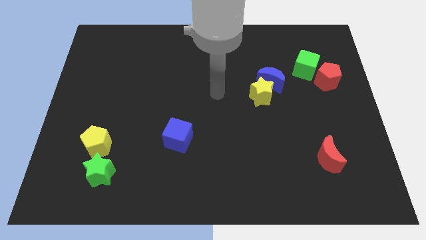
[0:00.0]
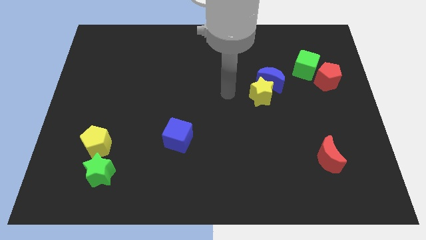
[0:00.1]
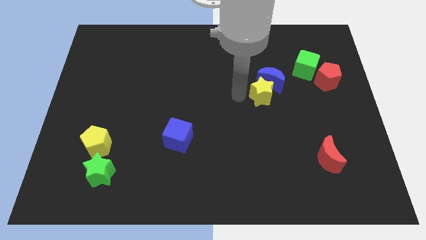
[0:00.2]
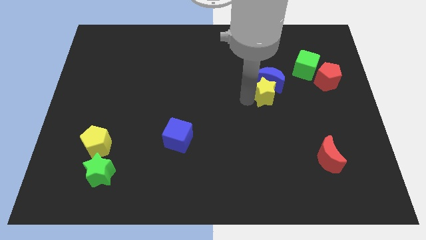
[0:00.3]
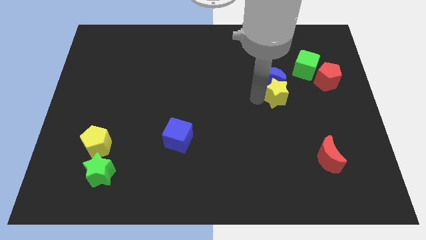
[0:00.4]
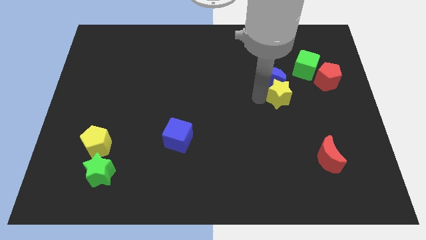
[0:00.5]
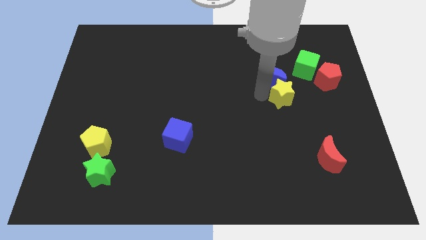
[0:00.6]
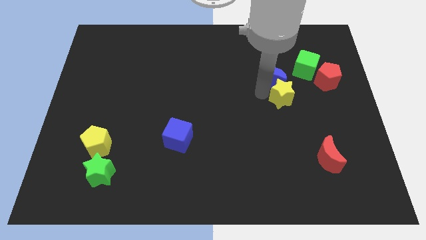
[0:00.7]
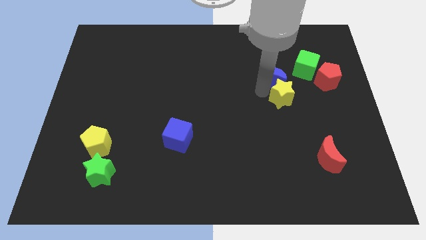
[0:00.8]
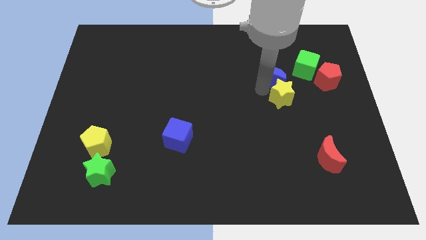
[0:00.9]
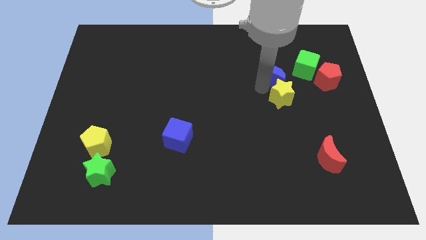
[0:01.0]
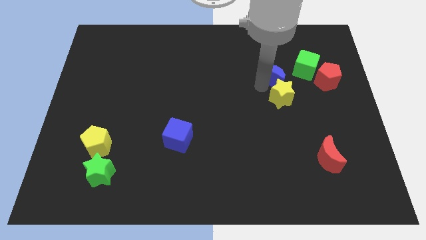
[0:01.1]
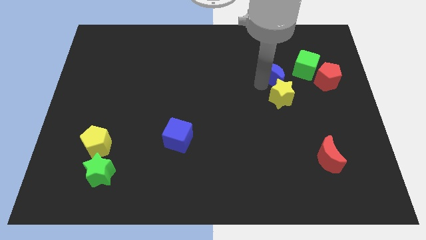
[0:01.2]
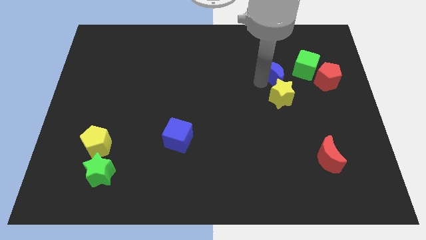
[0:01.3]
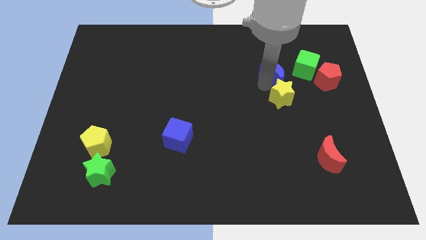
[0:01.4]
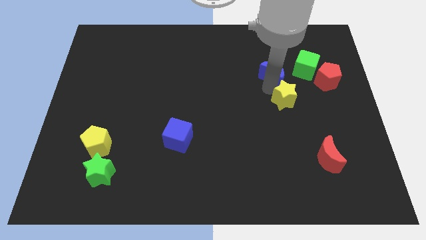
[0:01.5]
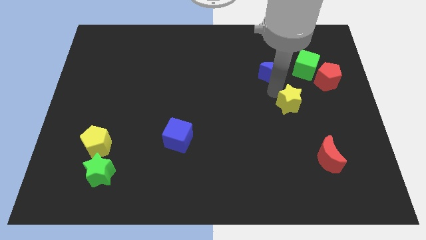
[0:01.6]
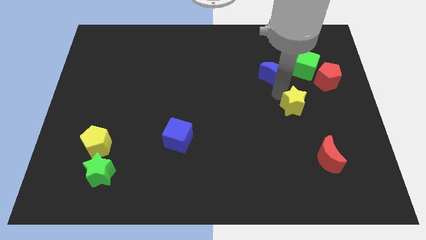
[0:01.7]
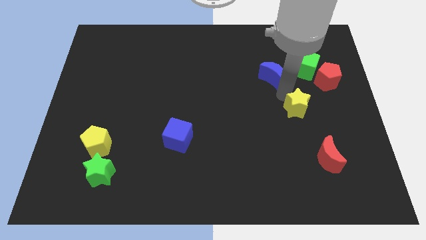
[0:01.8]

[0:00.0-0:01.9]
move the blue moon away from the yellow star

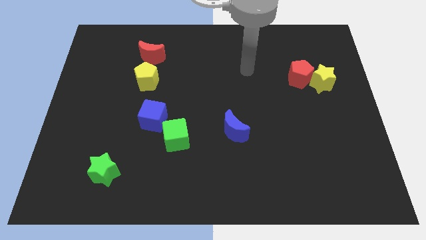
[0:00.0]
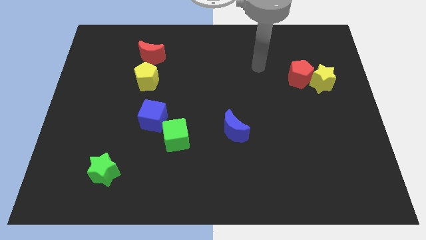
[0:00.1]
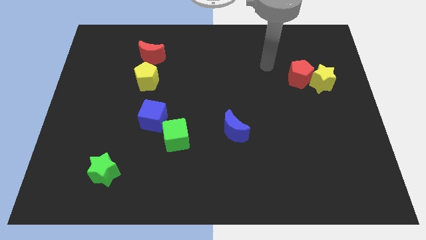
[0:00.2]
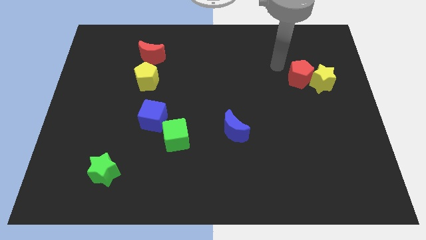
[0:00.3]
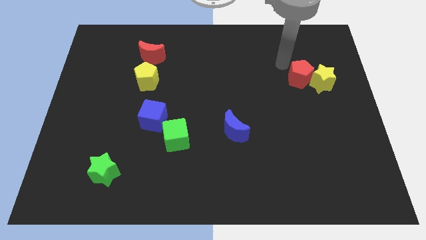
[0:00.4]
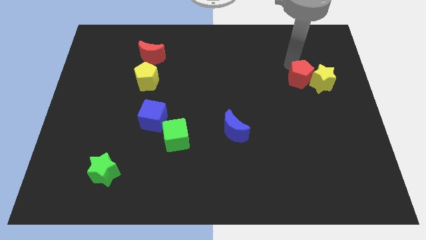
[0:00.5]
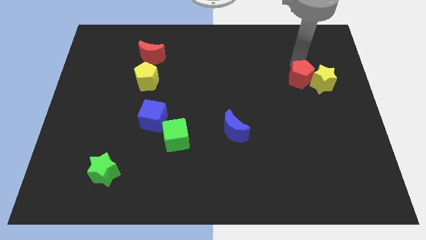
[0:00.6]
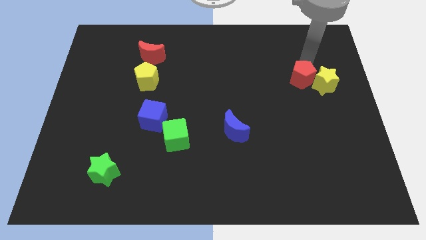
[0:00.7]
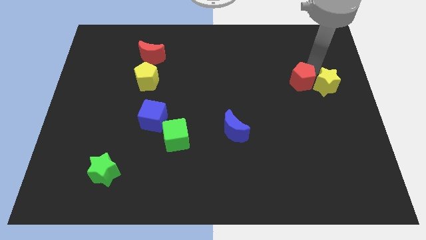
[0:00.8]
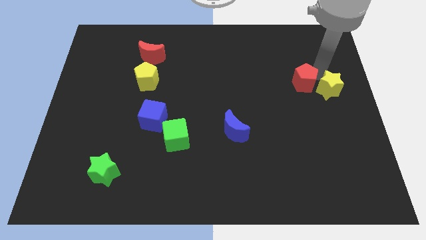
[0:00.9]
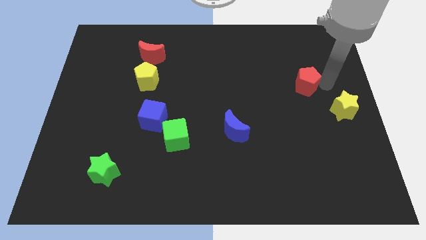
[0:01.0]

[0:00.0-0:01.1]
separate the red pentagon from the yellow star

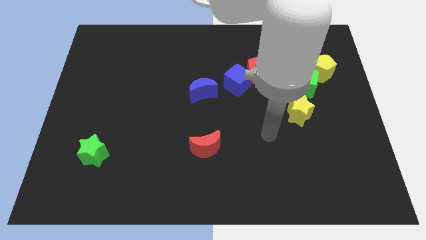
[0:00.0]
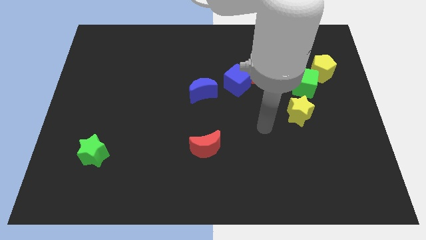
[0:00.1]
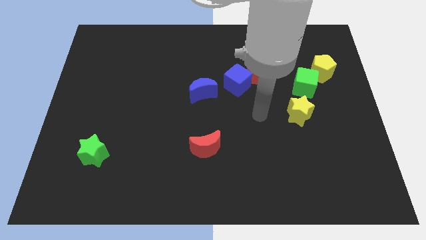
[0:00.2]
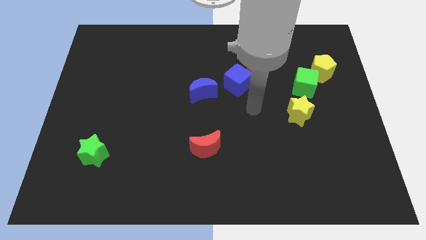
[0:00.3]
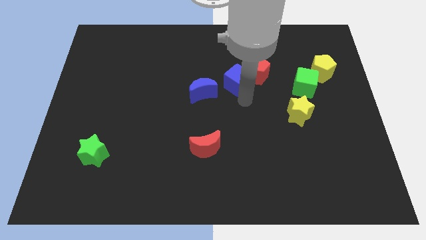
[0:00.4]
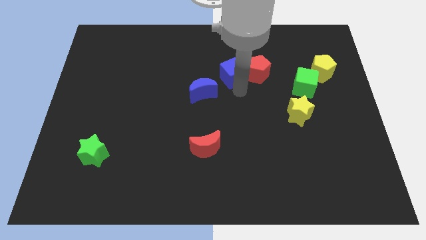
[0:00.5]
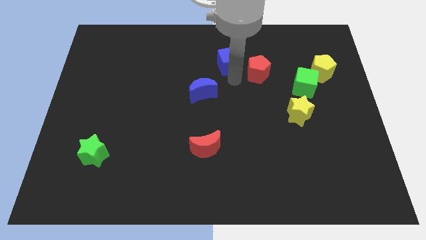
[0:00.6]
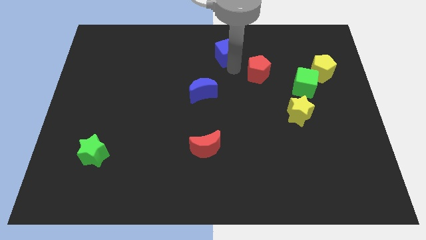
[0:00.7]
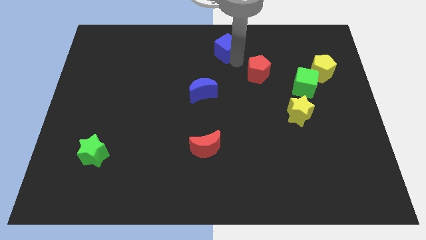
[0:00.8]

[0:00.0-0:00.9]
pull the red pentagon apart from the blue cube

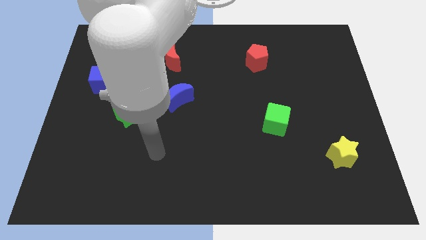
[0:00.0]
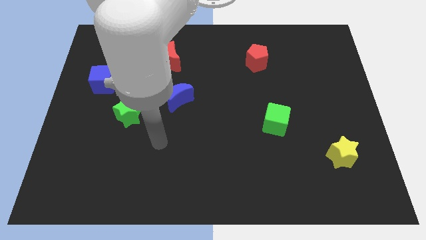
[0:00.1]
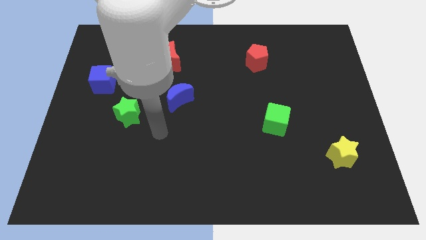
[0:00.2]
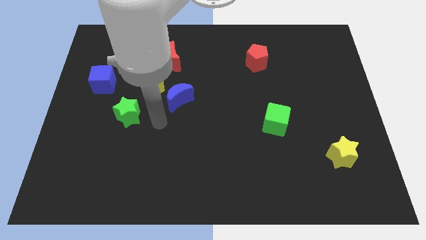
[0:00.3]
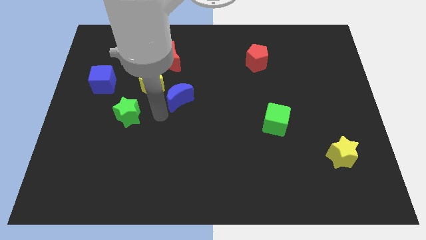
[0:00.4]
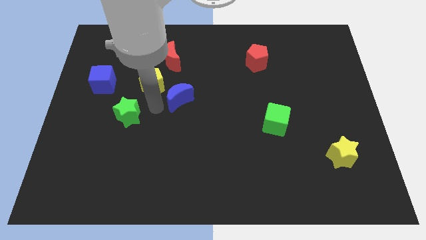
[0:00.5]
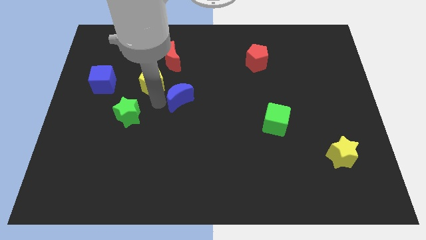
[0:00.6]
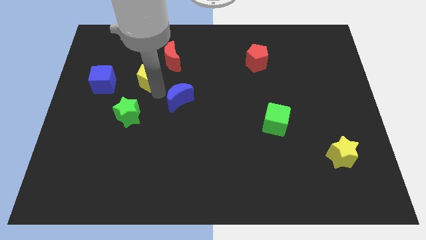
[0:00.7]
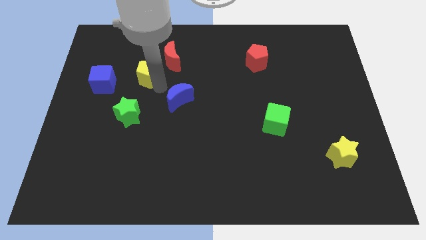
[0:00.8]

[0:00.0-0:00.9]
separate the blue moon from the yellow pentagon

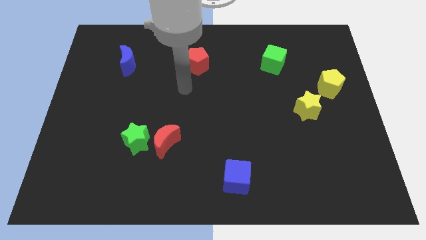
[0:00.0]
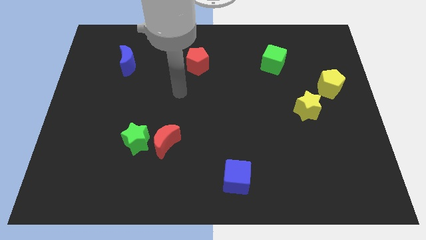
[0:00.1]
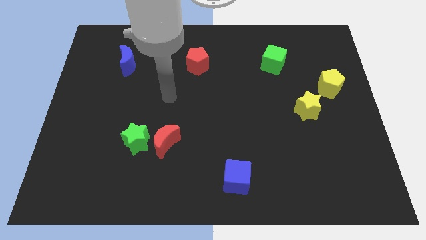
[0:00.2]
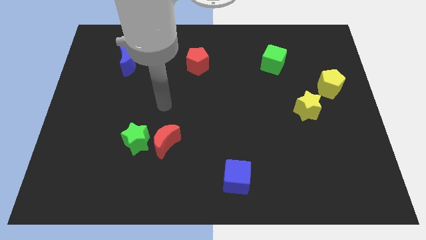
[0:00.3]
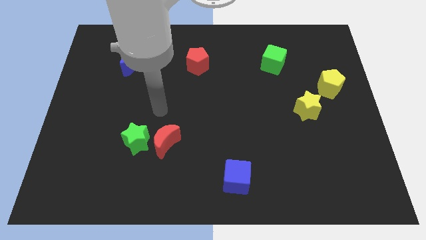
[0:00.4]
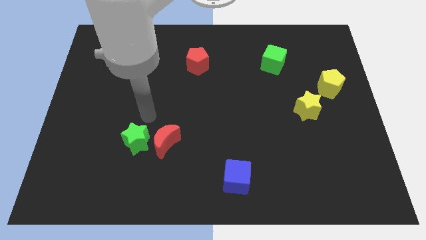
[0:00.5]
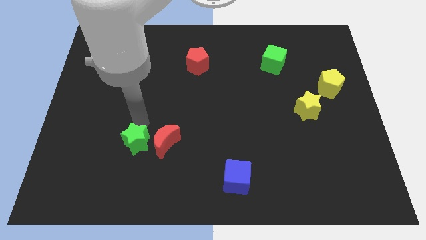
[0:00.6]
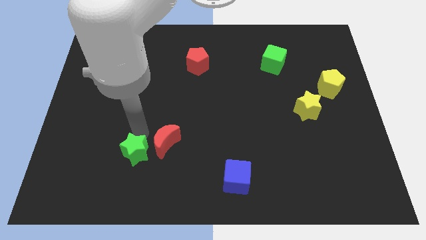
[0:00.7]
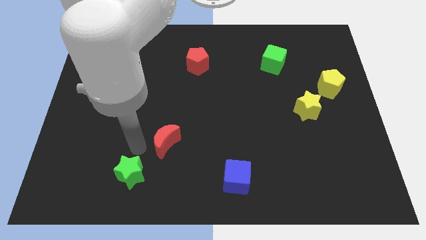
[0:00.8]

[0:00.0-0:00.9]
separate the red moon from the green star

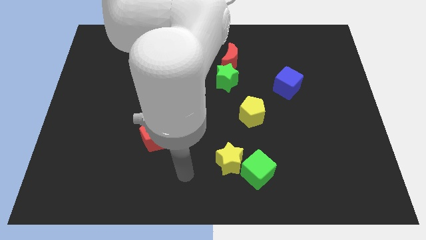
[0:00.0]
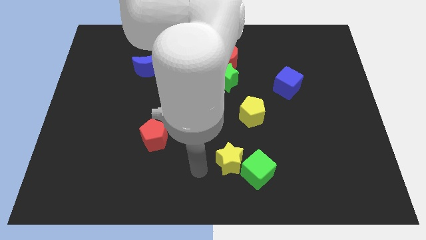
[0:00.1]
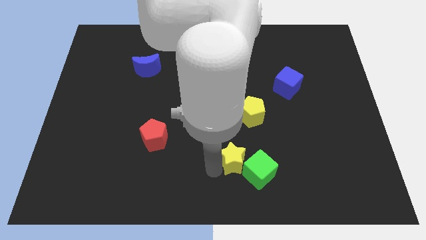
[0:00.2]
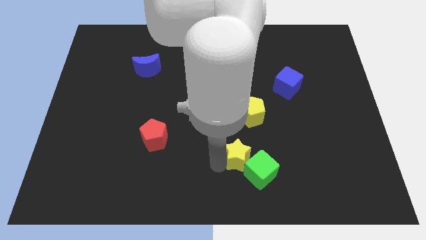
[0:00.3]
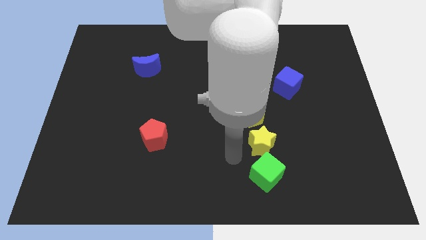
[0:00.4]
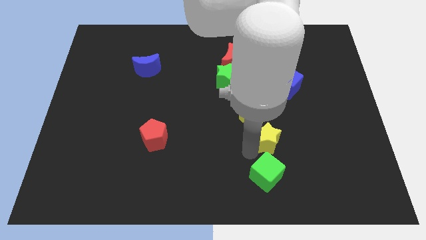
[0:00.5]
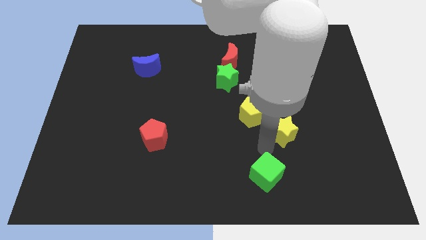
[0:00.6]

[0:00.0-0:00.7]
pull the green cube apart from the yellow star

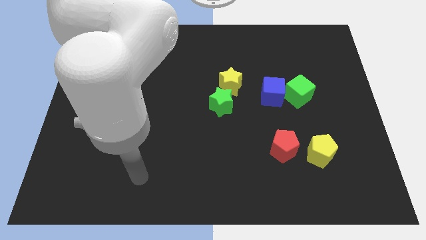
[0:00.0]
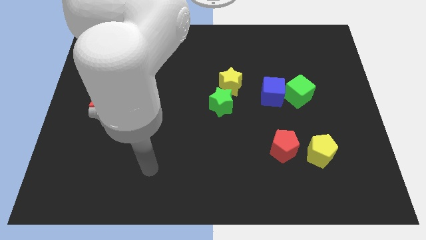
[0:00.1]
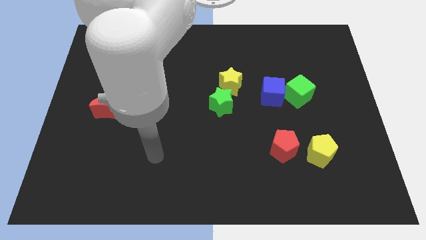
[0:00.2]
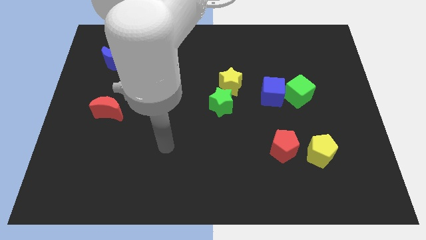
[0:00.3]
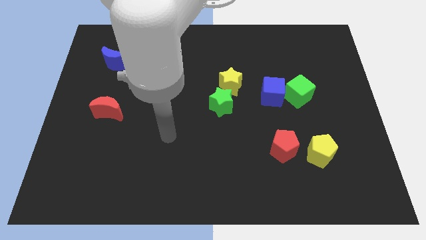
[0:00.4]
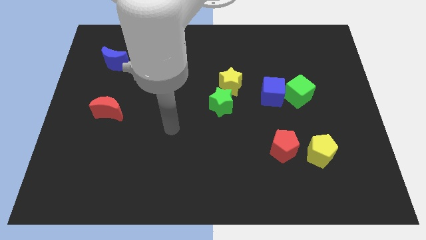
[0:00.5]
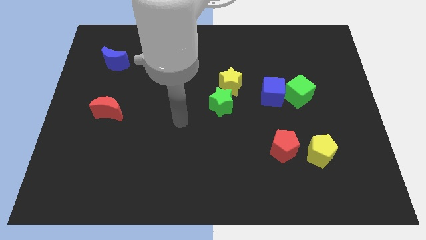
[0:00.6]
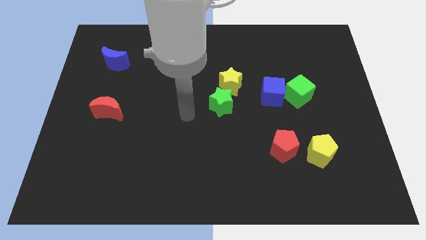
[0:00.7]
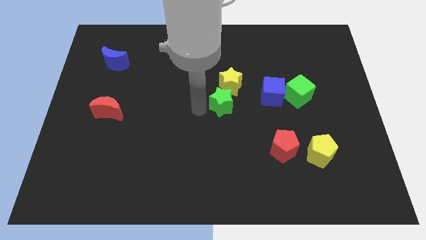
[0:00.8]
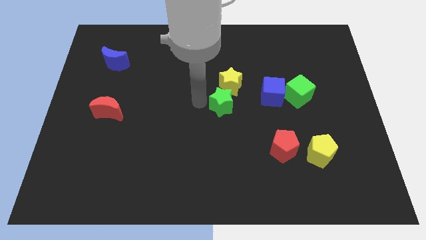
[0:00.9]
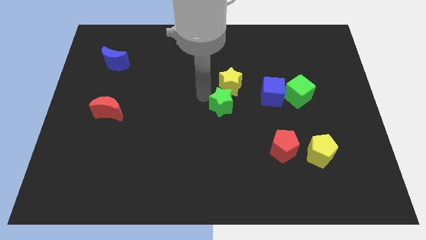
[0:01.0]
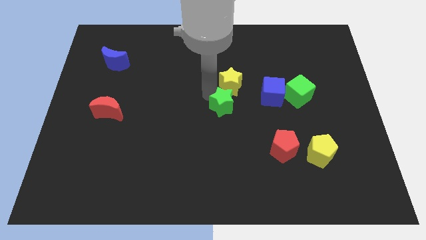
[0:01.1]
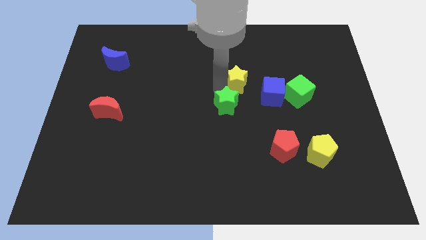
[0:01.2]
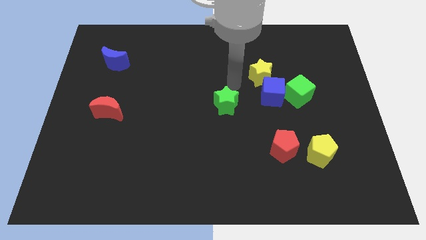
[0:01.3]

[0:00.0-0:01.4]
pull the green star apart from the yellow star

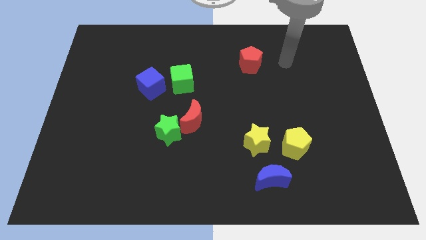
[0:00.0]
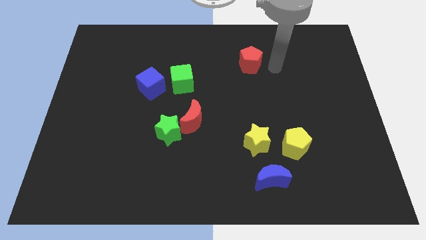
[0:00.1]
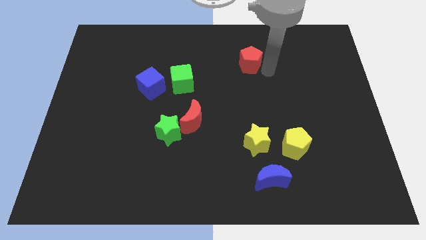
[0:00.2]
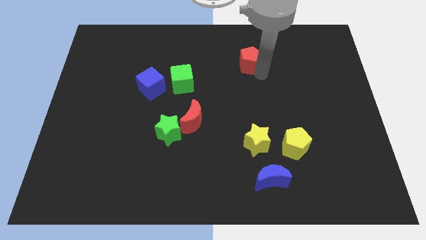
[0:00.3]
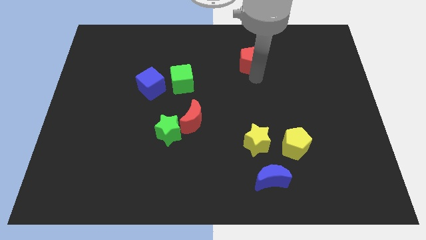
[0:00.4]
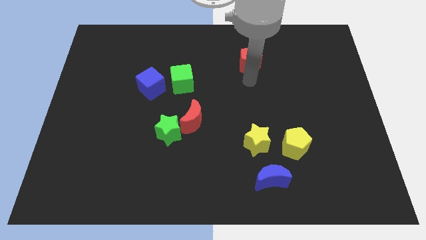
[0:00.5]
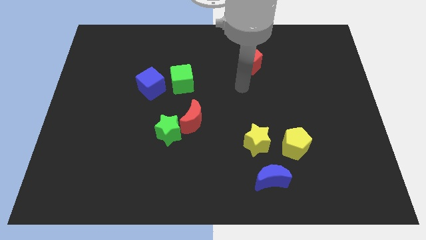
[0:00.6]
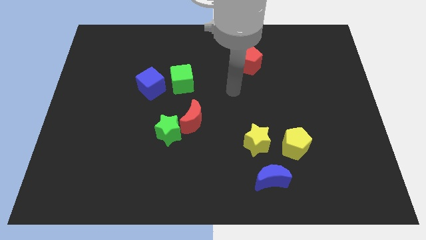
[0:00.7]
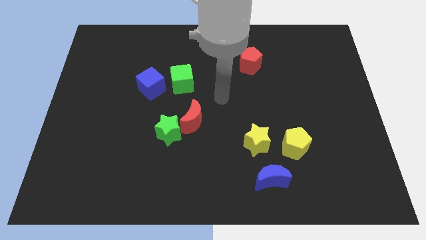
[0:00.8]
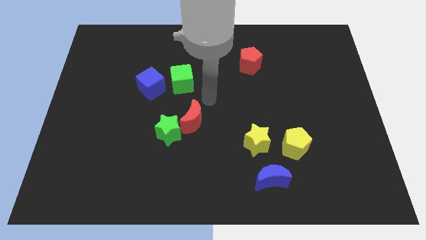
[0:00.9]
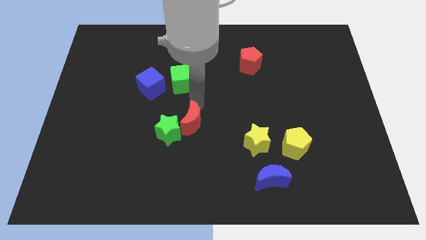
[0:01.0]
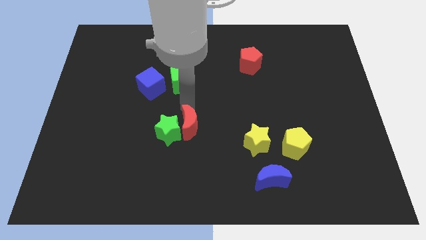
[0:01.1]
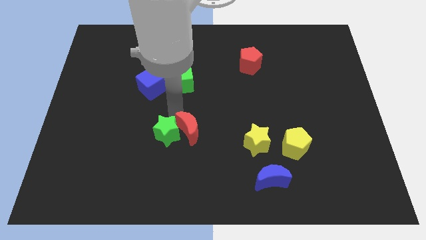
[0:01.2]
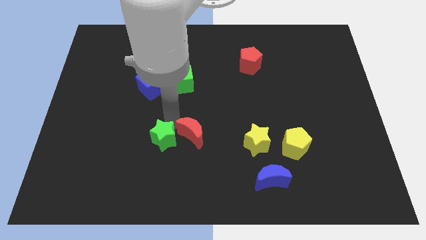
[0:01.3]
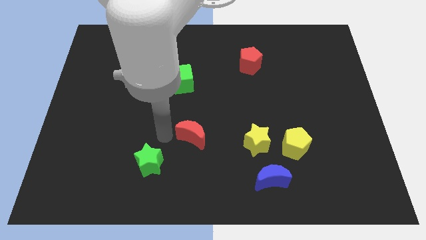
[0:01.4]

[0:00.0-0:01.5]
move the red moon away from the green star
